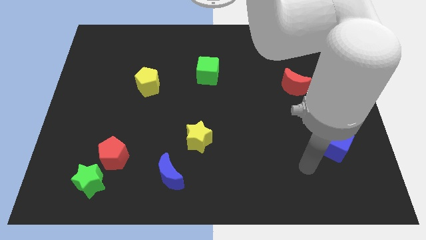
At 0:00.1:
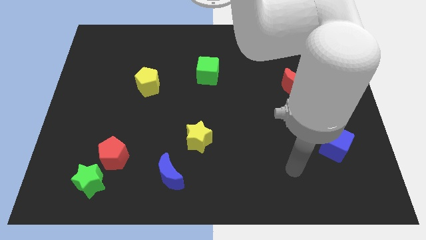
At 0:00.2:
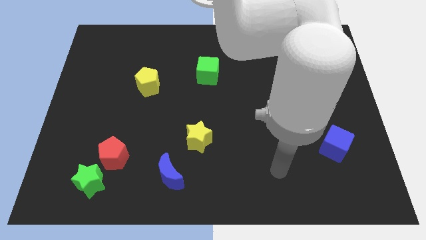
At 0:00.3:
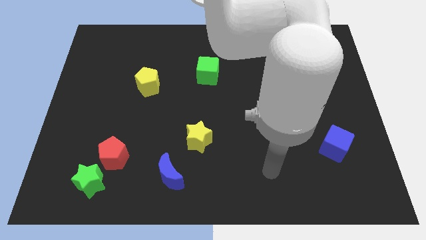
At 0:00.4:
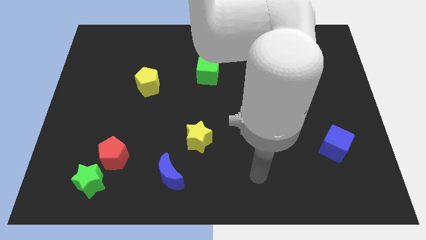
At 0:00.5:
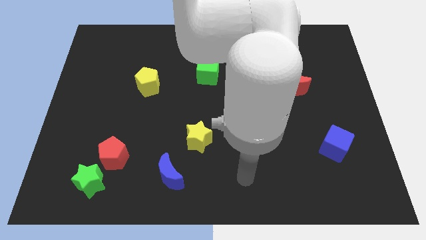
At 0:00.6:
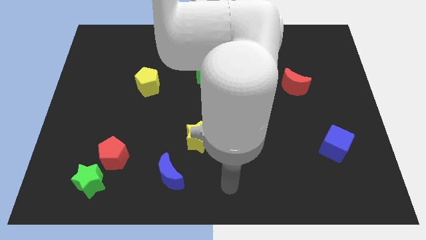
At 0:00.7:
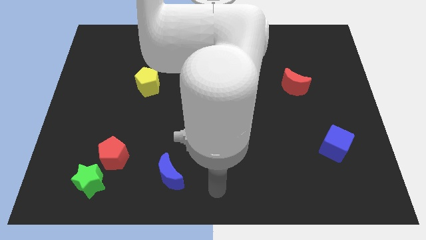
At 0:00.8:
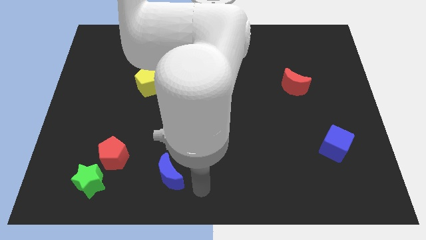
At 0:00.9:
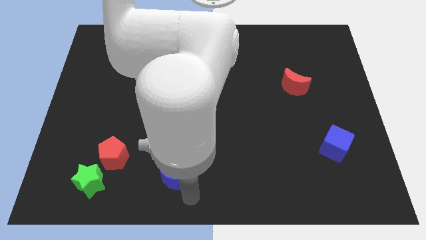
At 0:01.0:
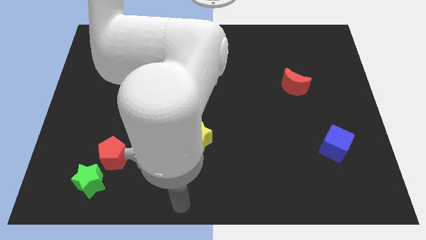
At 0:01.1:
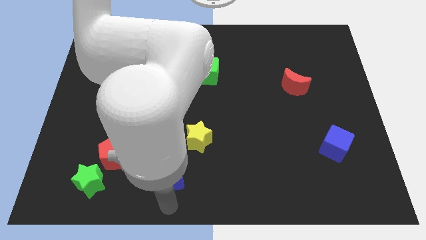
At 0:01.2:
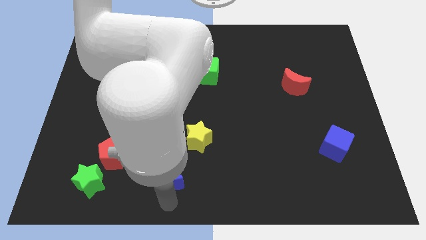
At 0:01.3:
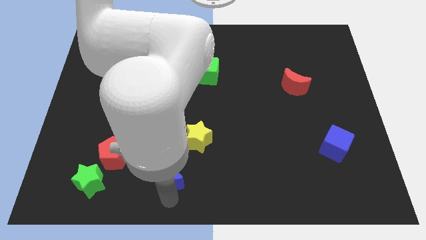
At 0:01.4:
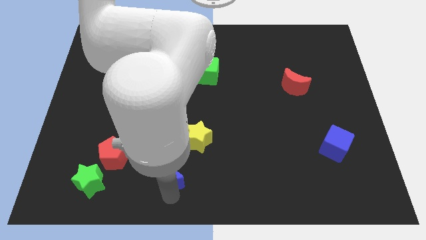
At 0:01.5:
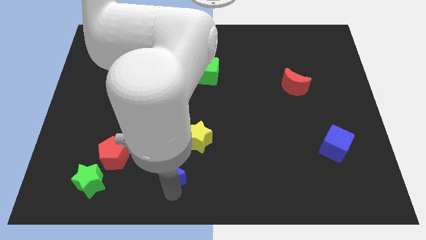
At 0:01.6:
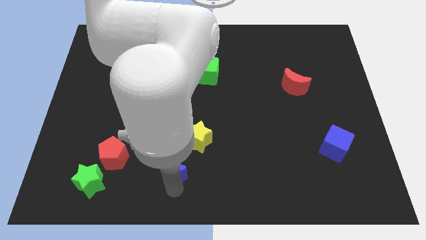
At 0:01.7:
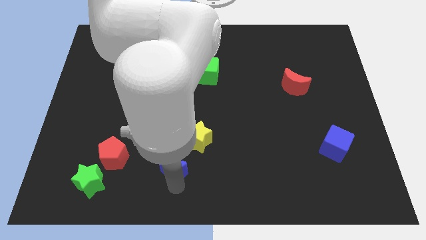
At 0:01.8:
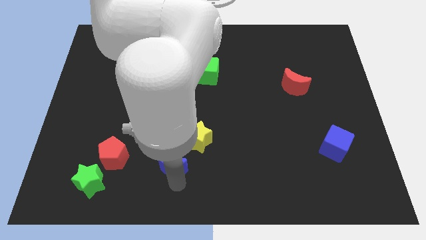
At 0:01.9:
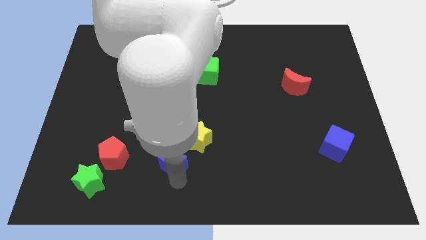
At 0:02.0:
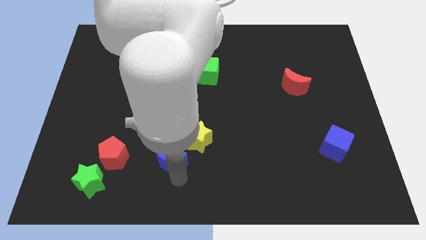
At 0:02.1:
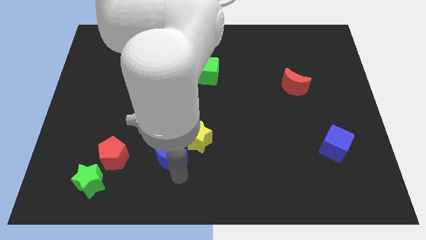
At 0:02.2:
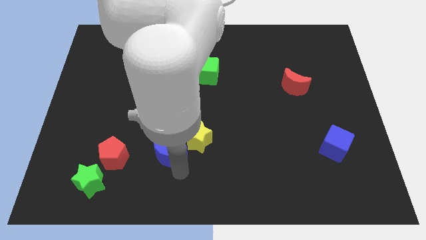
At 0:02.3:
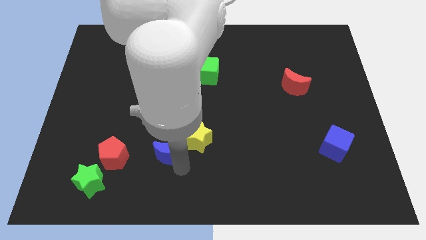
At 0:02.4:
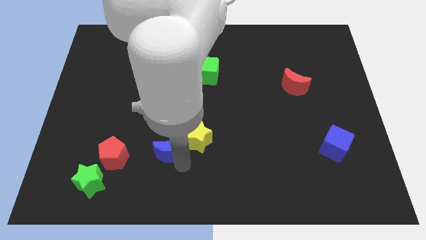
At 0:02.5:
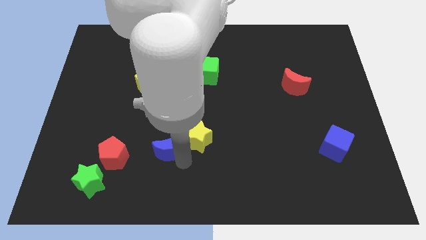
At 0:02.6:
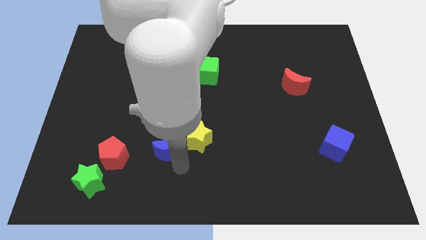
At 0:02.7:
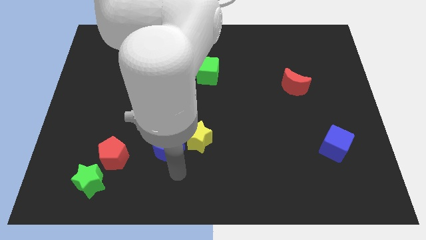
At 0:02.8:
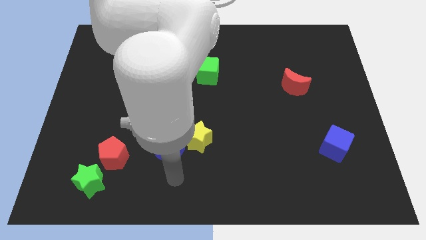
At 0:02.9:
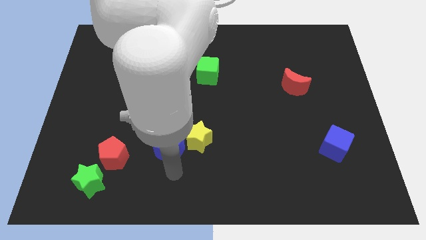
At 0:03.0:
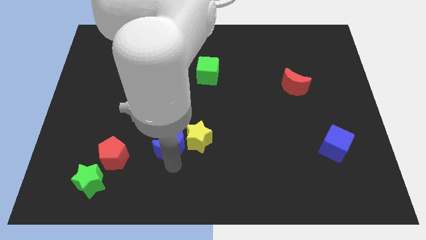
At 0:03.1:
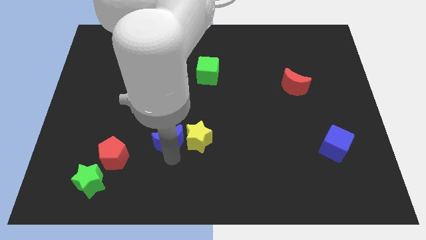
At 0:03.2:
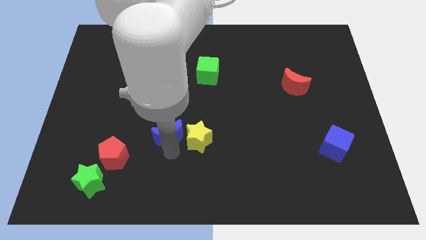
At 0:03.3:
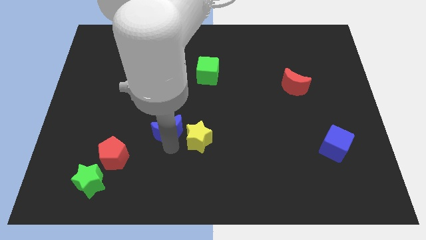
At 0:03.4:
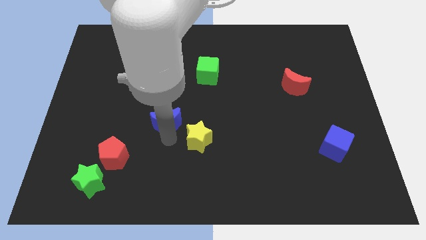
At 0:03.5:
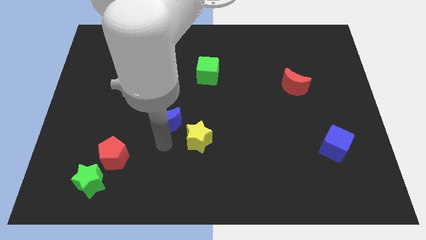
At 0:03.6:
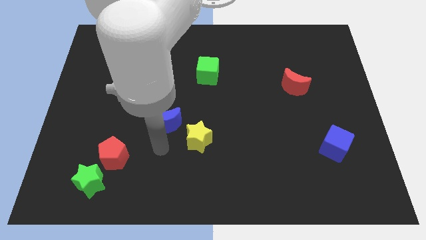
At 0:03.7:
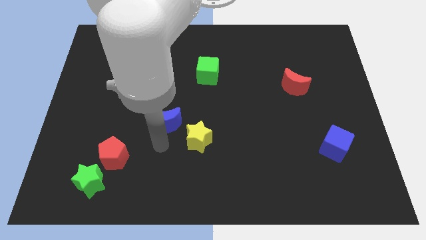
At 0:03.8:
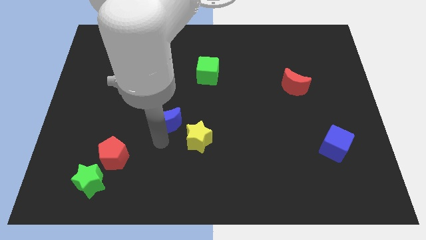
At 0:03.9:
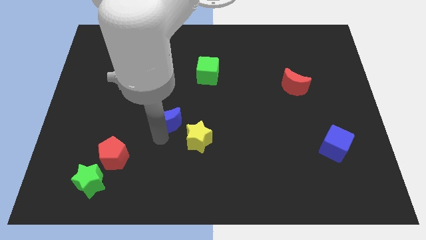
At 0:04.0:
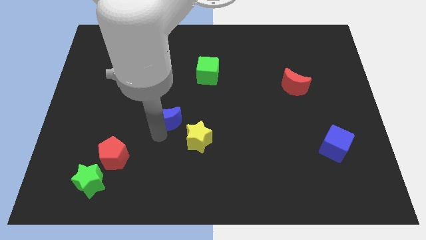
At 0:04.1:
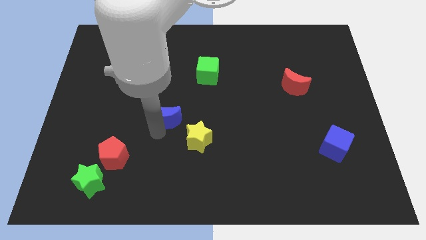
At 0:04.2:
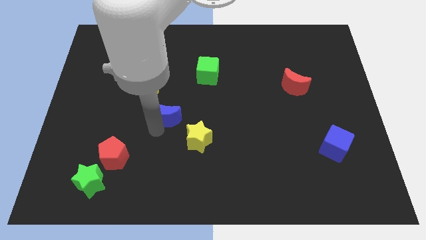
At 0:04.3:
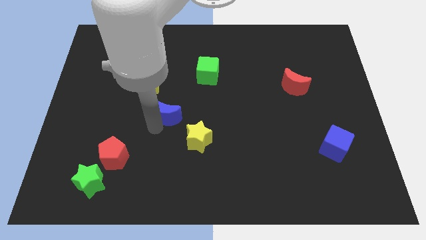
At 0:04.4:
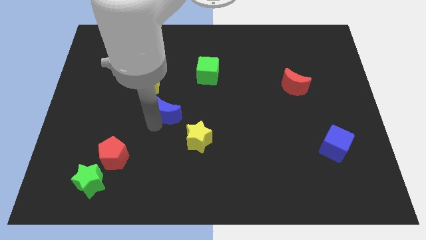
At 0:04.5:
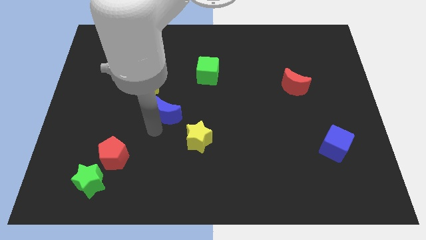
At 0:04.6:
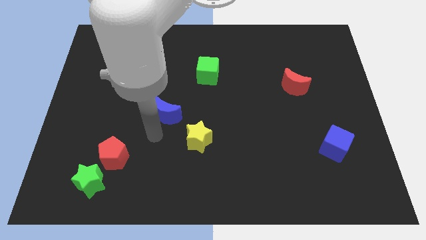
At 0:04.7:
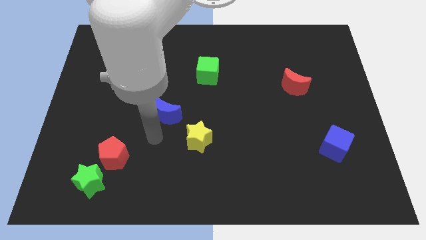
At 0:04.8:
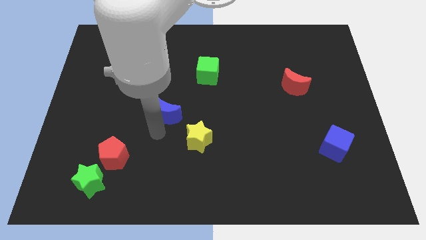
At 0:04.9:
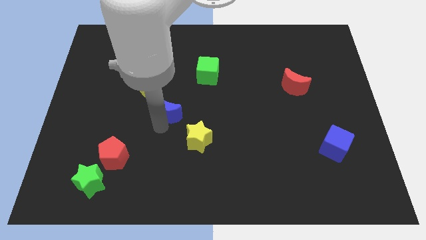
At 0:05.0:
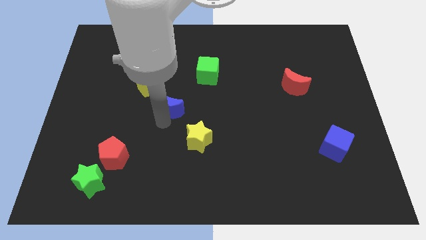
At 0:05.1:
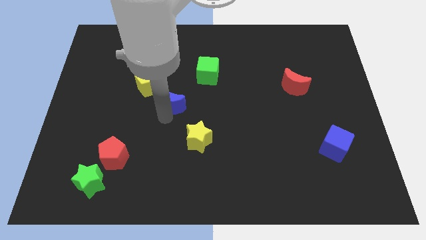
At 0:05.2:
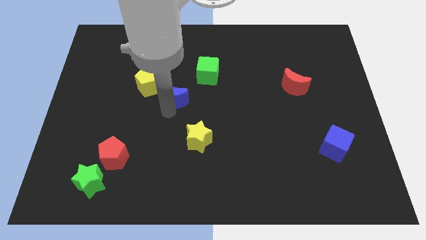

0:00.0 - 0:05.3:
move the blue moon upwards

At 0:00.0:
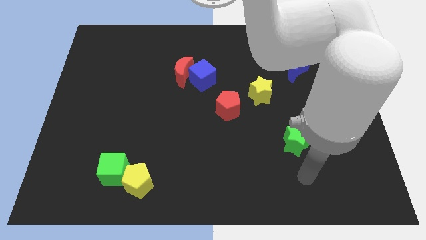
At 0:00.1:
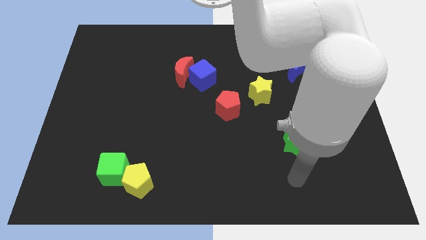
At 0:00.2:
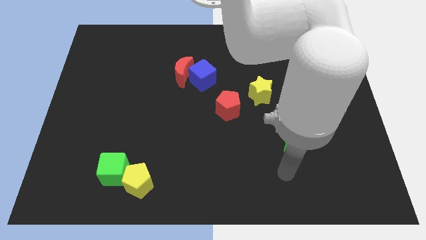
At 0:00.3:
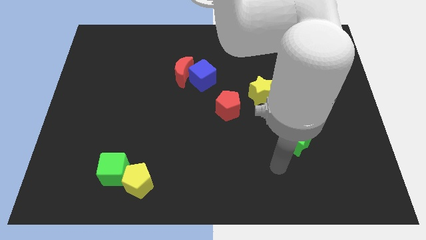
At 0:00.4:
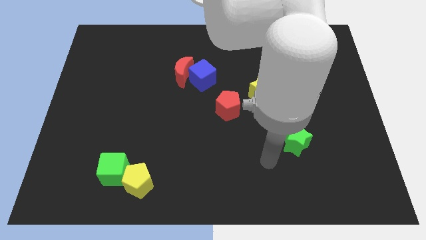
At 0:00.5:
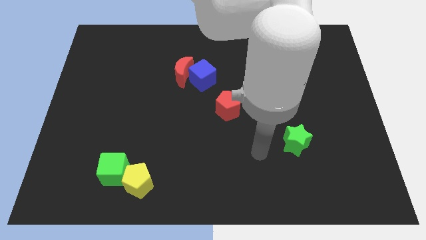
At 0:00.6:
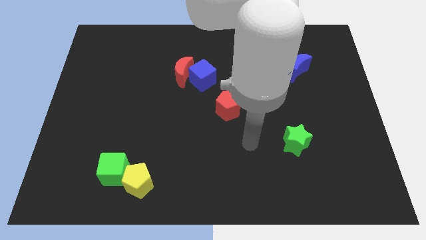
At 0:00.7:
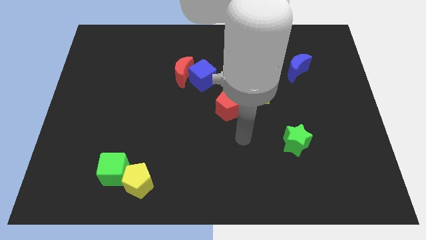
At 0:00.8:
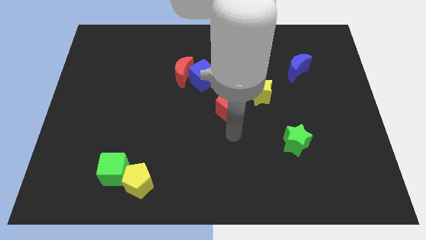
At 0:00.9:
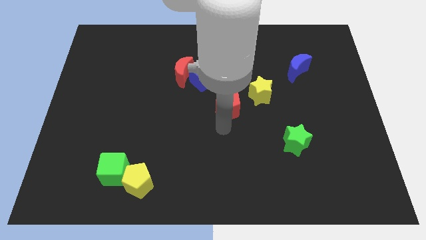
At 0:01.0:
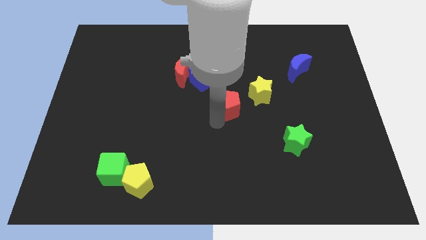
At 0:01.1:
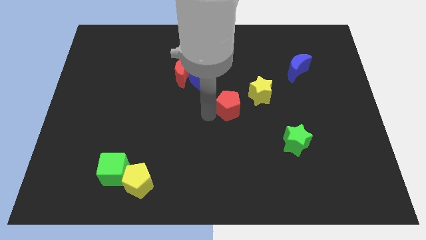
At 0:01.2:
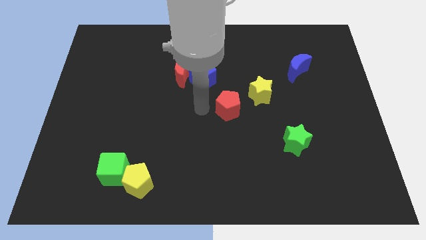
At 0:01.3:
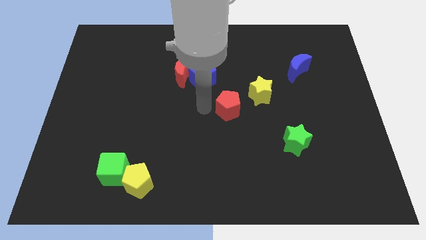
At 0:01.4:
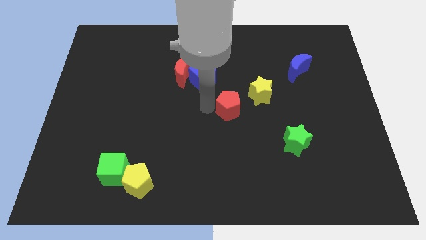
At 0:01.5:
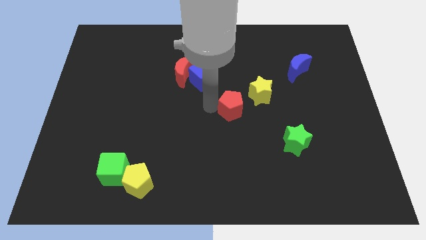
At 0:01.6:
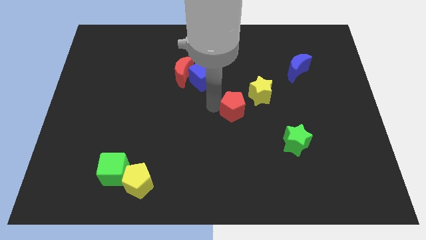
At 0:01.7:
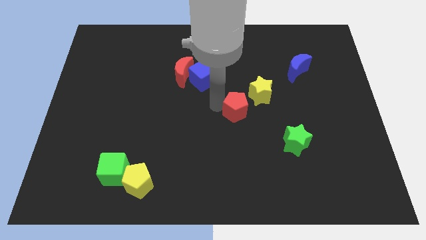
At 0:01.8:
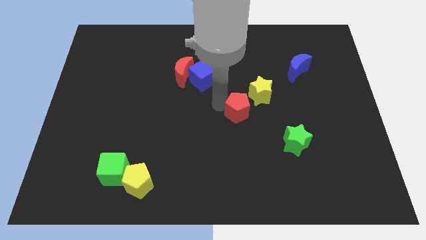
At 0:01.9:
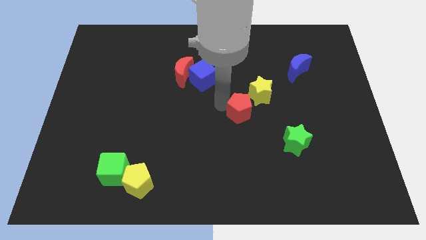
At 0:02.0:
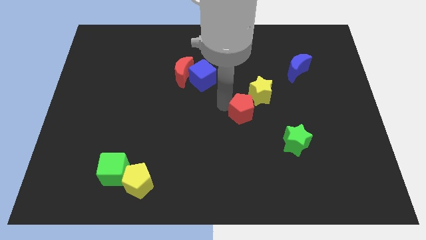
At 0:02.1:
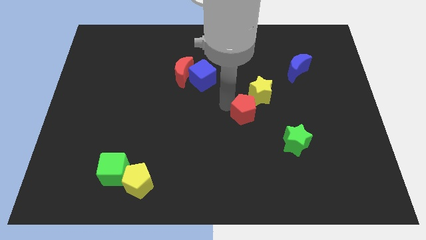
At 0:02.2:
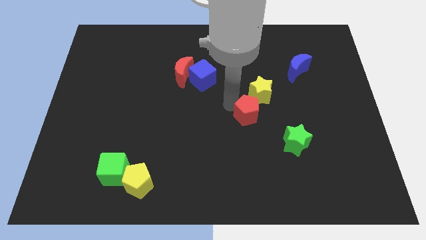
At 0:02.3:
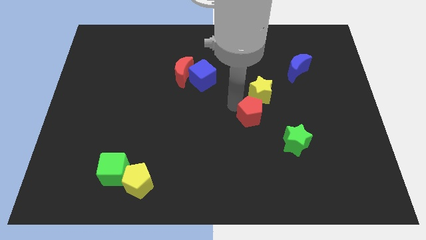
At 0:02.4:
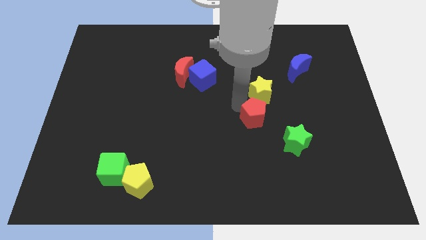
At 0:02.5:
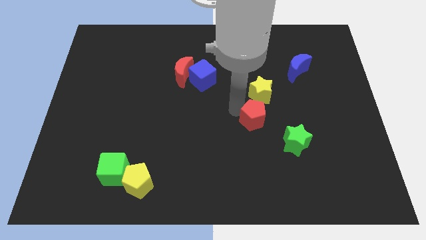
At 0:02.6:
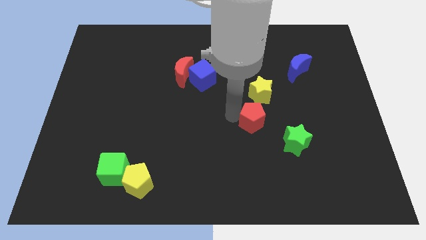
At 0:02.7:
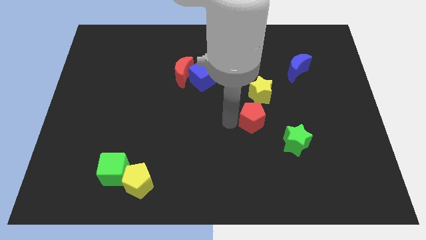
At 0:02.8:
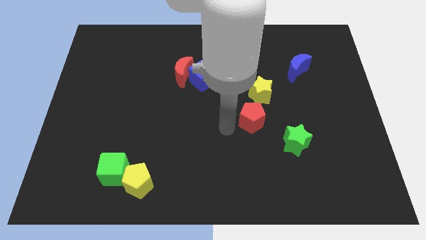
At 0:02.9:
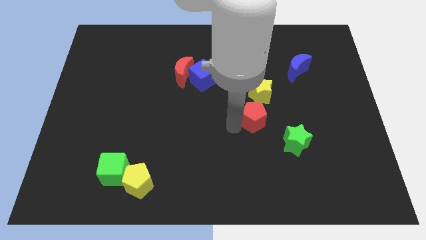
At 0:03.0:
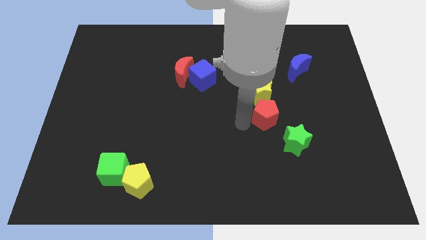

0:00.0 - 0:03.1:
push the red pentagon somewhat right
